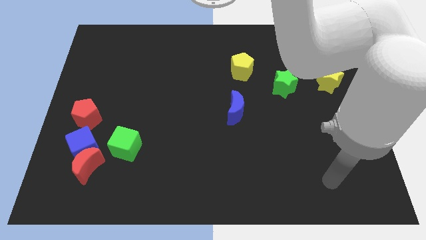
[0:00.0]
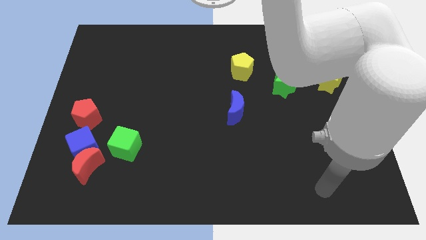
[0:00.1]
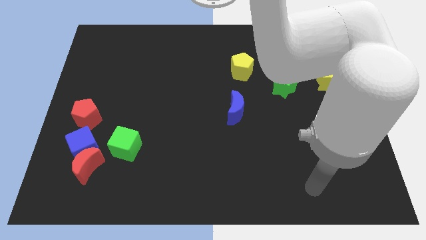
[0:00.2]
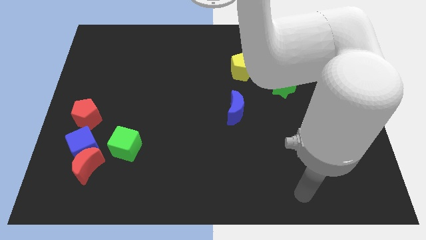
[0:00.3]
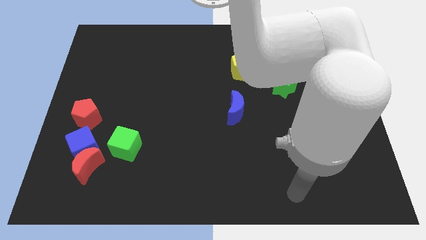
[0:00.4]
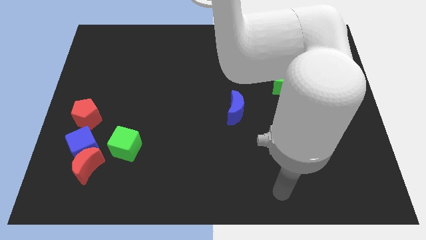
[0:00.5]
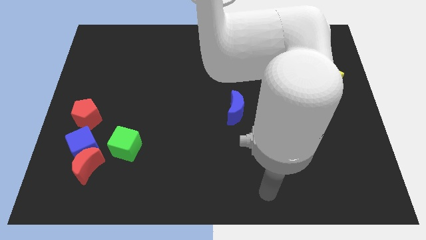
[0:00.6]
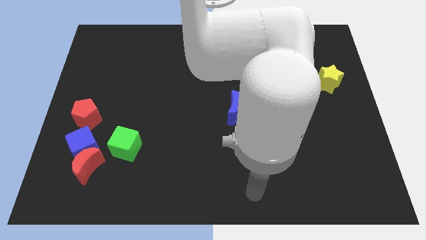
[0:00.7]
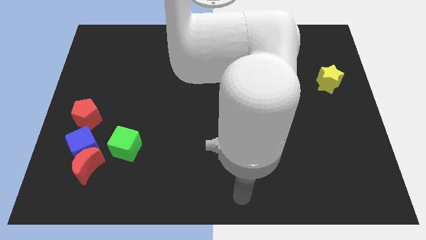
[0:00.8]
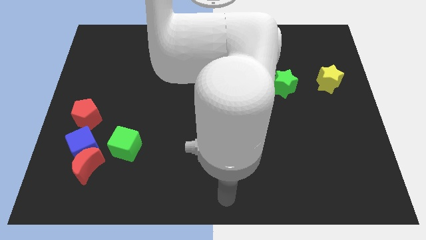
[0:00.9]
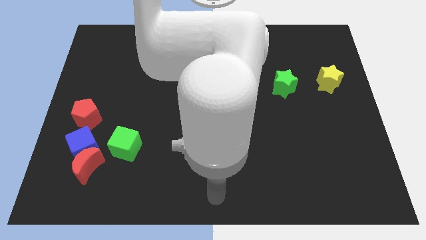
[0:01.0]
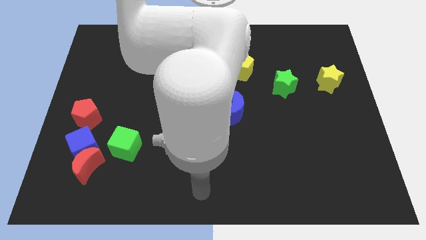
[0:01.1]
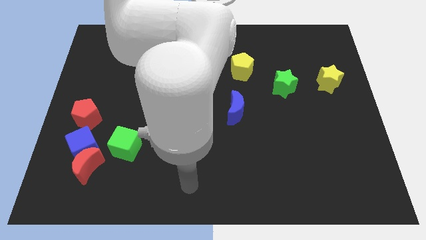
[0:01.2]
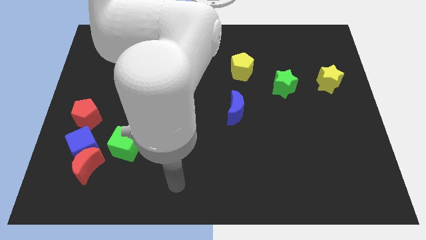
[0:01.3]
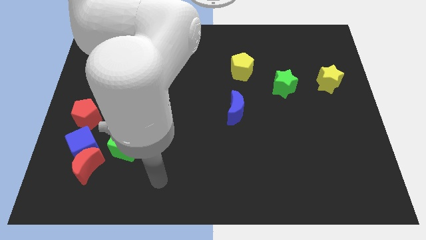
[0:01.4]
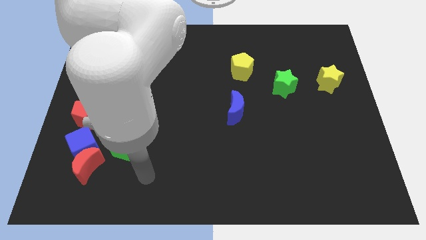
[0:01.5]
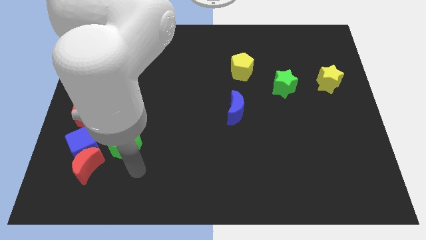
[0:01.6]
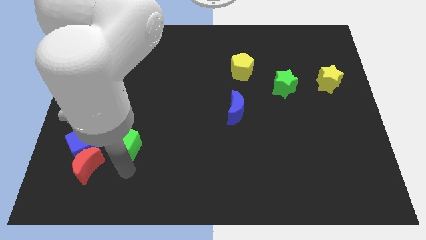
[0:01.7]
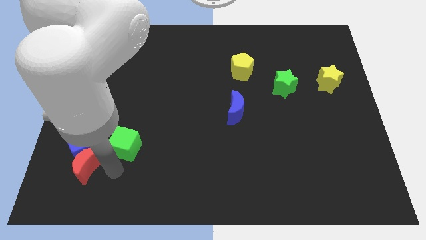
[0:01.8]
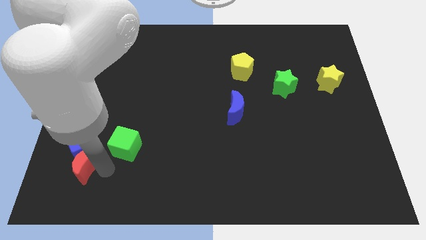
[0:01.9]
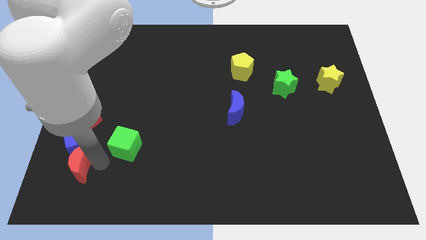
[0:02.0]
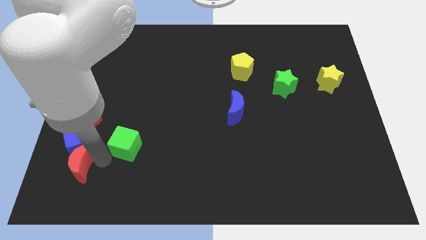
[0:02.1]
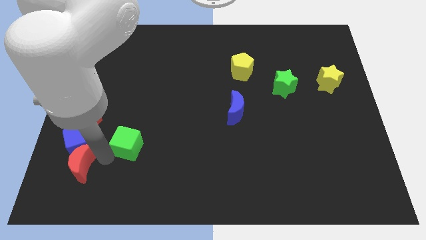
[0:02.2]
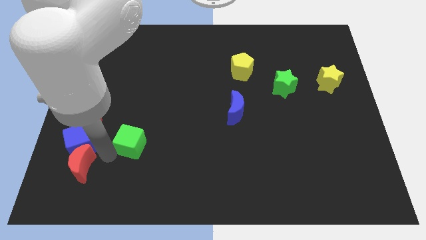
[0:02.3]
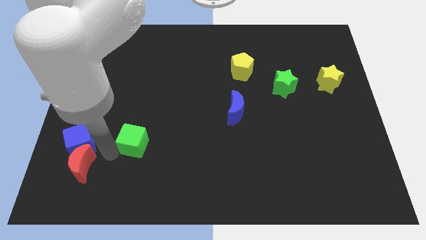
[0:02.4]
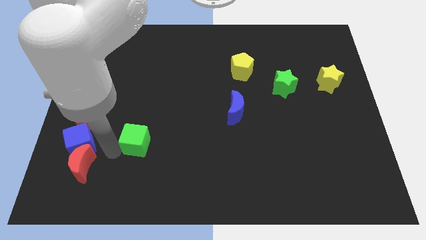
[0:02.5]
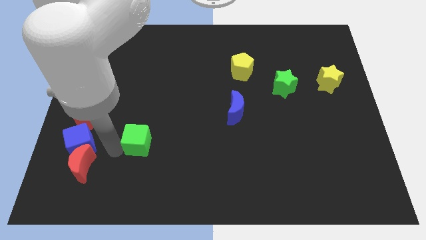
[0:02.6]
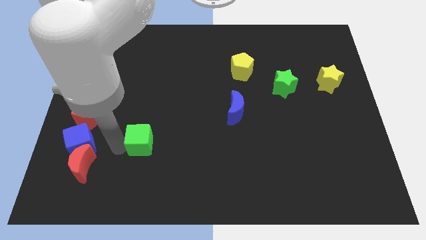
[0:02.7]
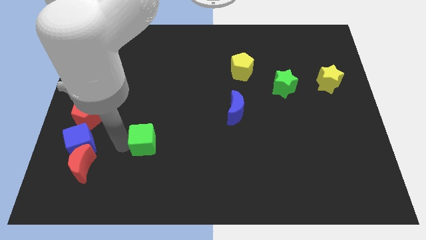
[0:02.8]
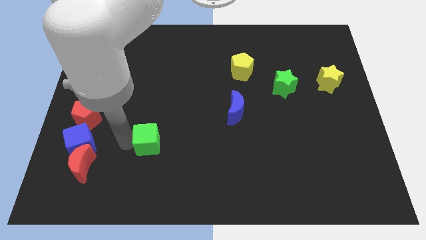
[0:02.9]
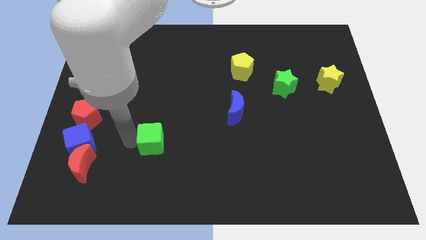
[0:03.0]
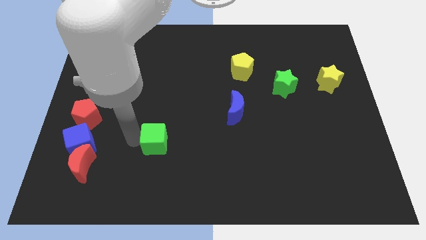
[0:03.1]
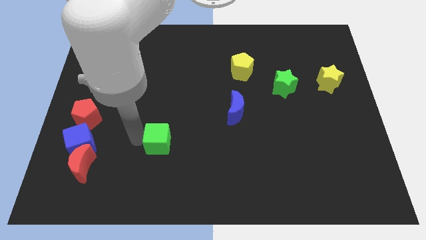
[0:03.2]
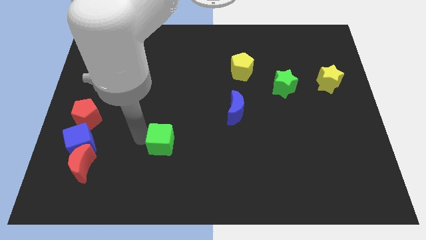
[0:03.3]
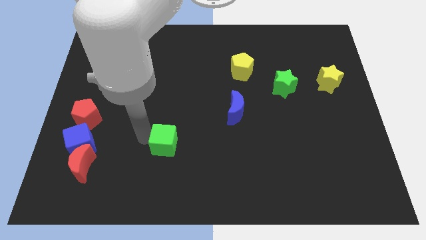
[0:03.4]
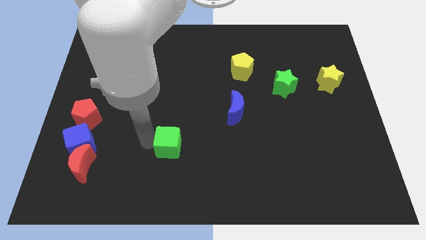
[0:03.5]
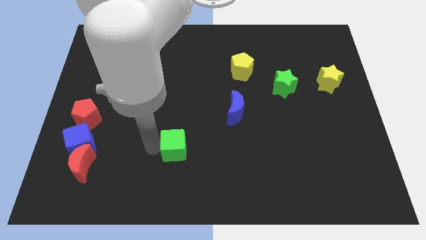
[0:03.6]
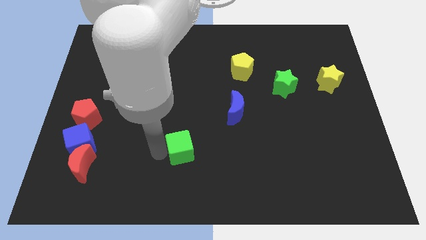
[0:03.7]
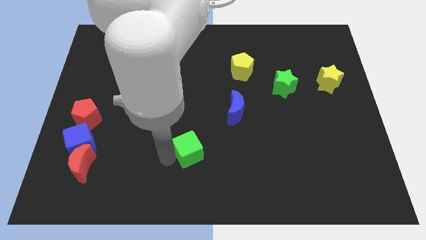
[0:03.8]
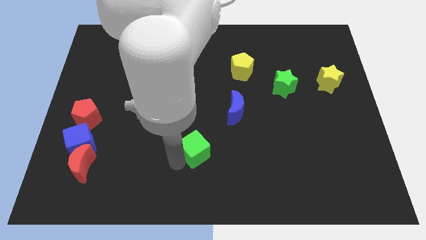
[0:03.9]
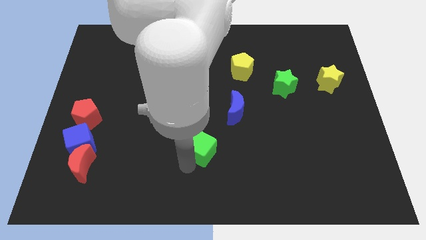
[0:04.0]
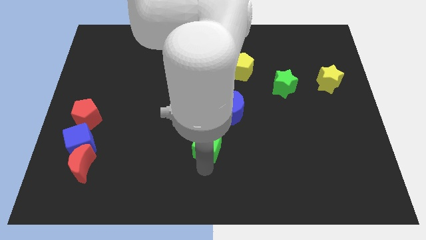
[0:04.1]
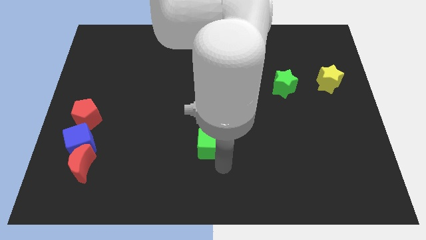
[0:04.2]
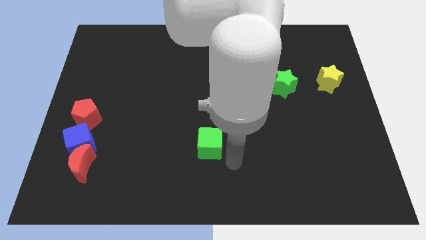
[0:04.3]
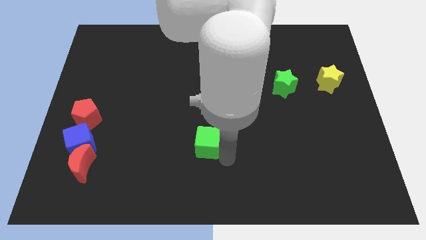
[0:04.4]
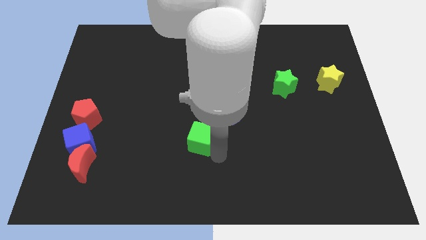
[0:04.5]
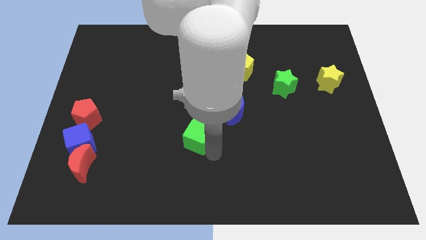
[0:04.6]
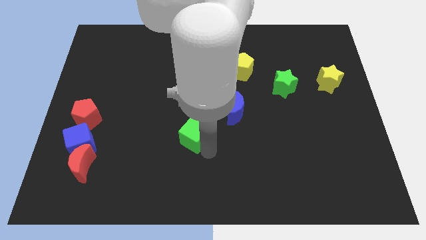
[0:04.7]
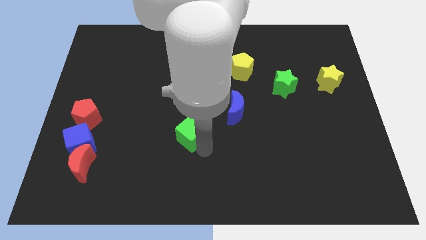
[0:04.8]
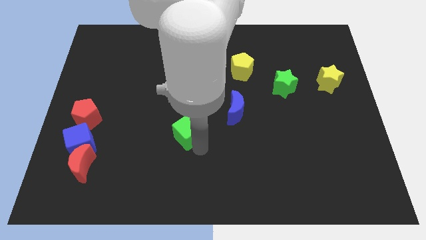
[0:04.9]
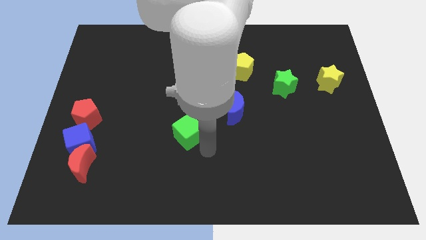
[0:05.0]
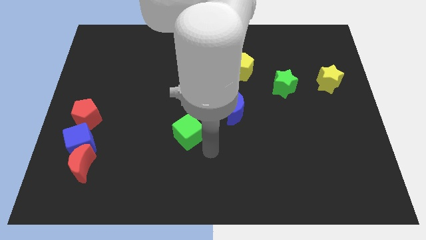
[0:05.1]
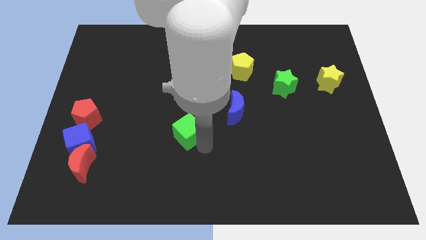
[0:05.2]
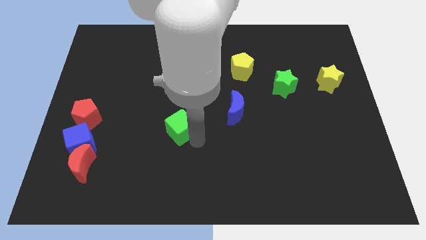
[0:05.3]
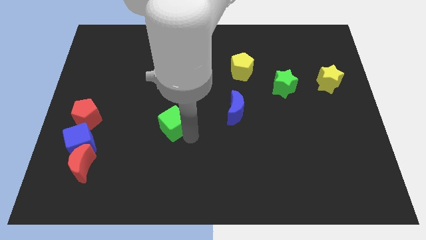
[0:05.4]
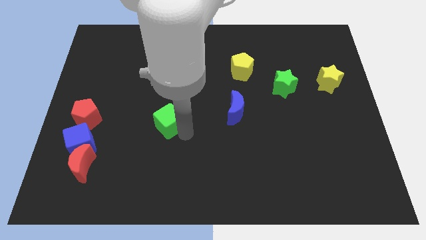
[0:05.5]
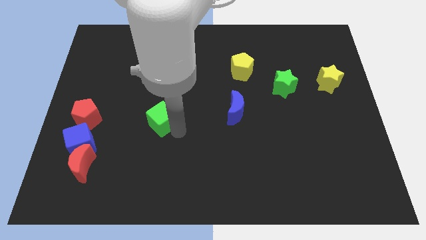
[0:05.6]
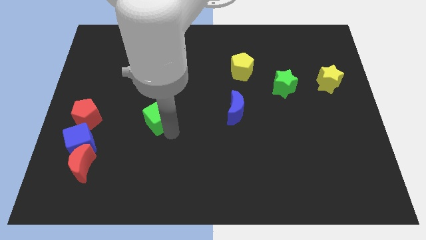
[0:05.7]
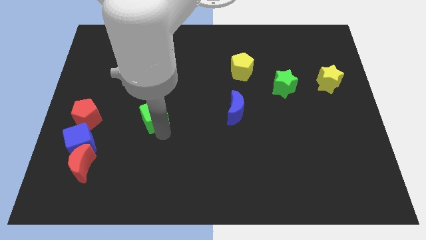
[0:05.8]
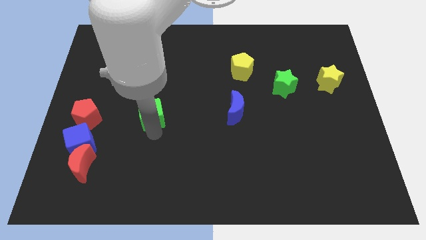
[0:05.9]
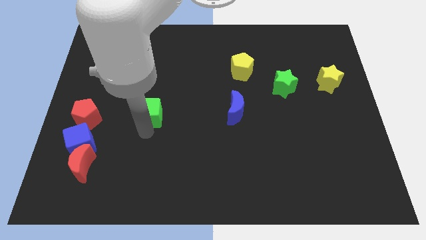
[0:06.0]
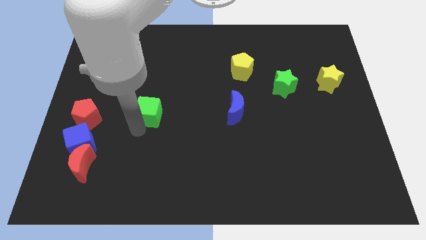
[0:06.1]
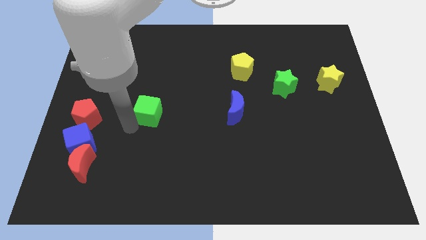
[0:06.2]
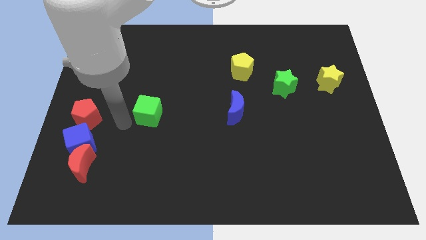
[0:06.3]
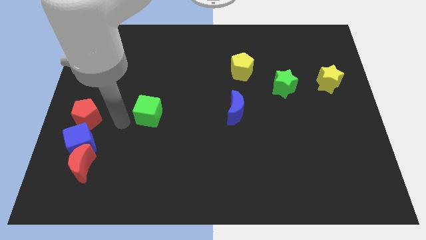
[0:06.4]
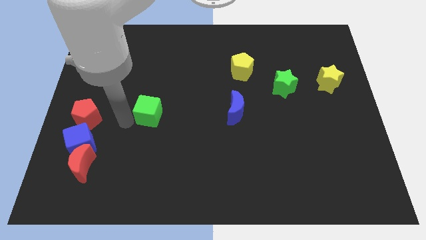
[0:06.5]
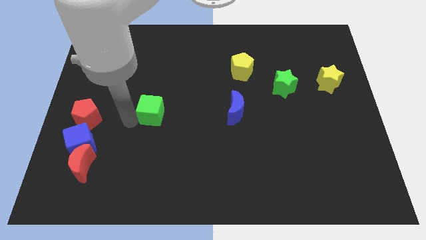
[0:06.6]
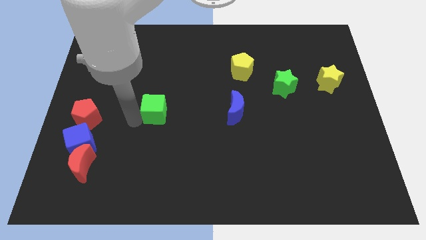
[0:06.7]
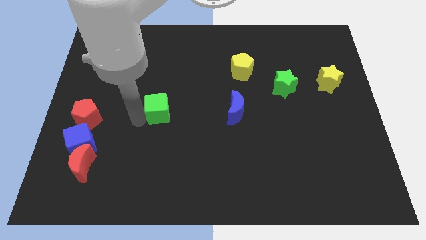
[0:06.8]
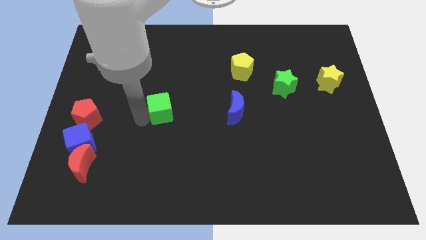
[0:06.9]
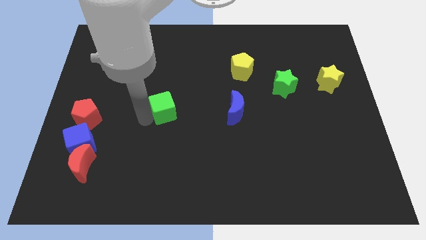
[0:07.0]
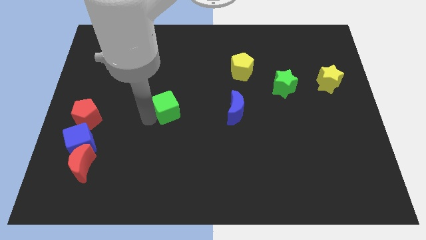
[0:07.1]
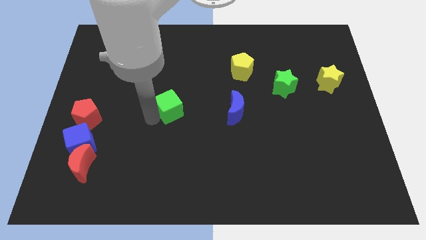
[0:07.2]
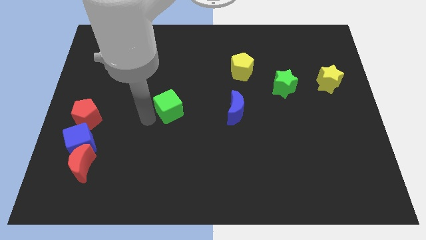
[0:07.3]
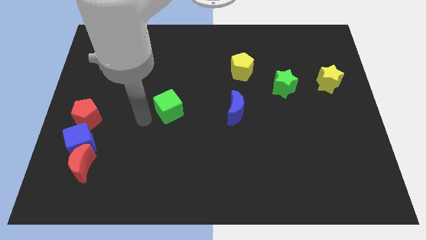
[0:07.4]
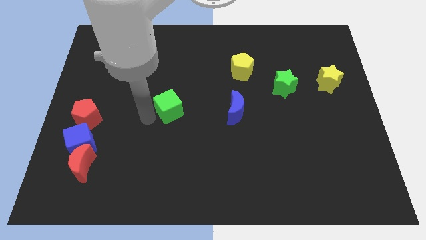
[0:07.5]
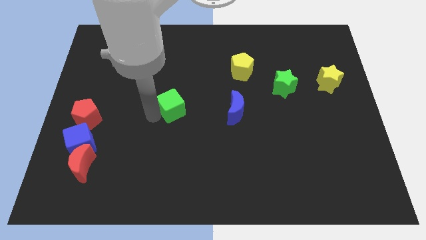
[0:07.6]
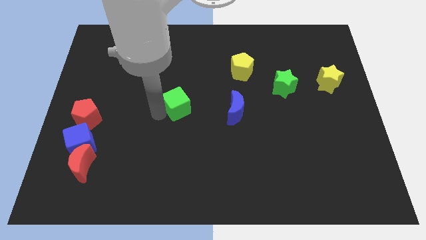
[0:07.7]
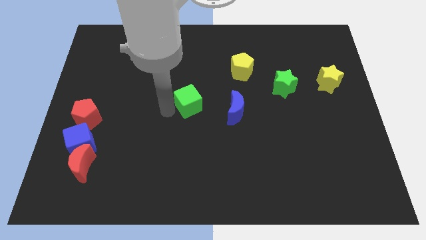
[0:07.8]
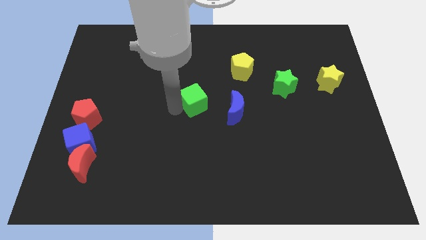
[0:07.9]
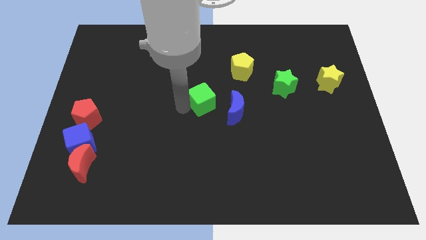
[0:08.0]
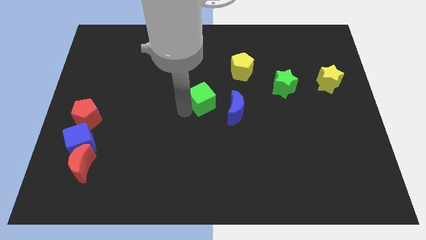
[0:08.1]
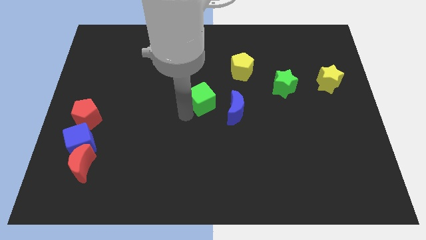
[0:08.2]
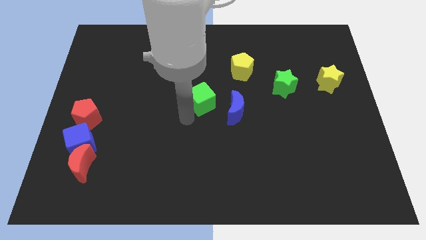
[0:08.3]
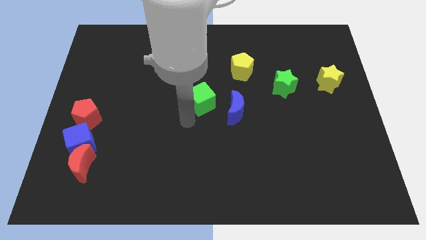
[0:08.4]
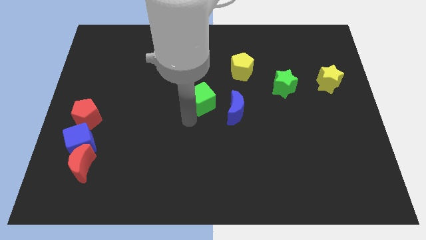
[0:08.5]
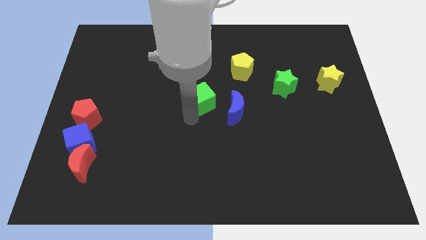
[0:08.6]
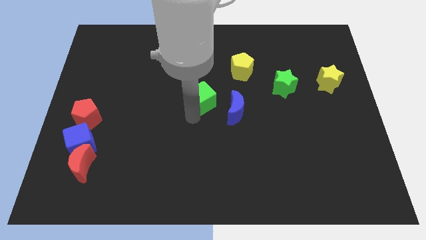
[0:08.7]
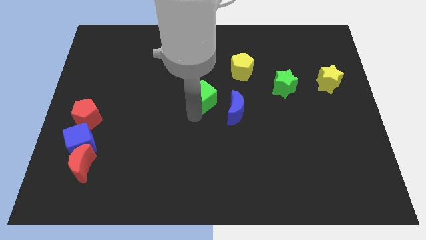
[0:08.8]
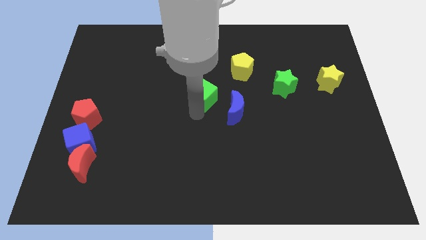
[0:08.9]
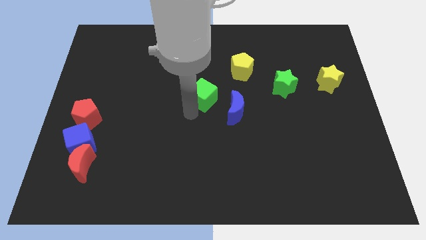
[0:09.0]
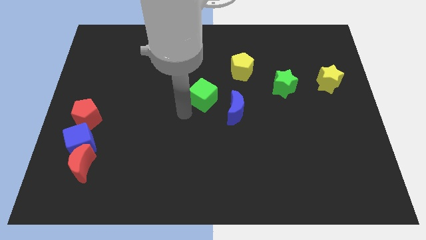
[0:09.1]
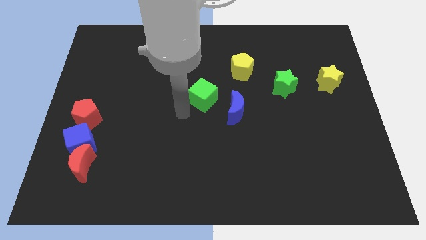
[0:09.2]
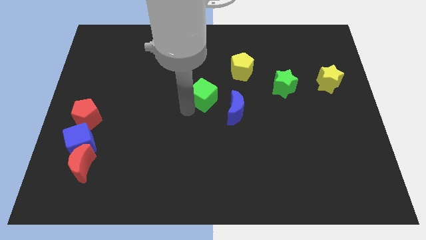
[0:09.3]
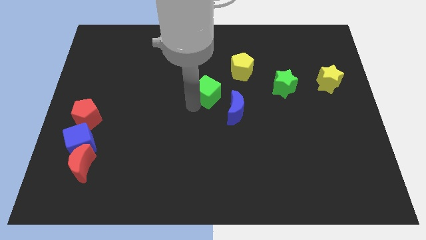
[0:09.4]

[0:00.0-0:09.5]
slide the green cube to the bottom left side of the yellow pentagon
